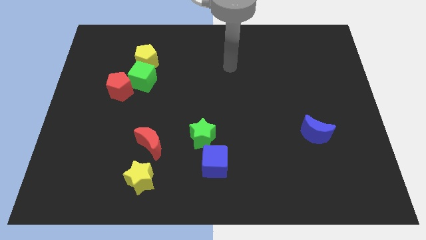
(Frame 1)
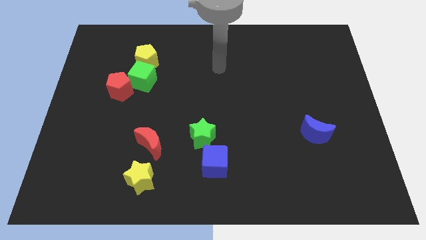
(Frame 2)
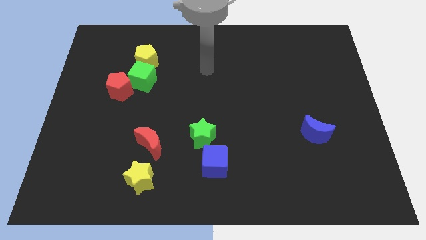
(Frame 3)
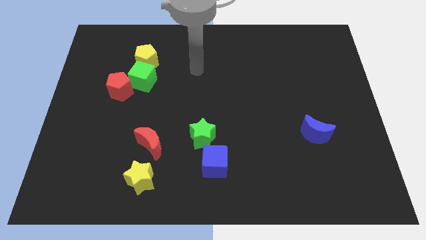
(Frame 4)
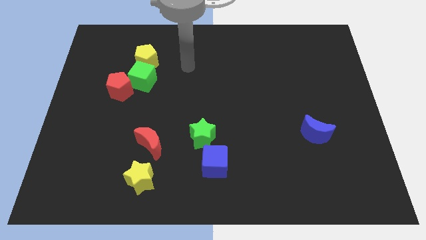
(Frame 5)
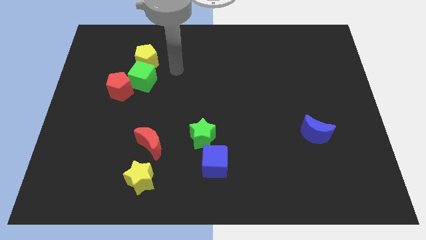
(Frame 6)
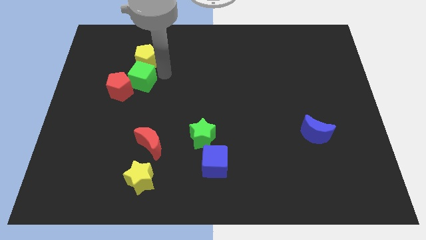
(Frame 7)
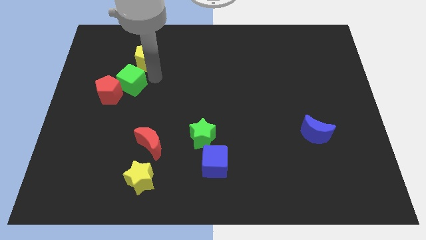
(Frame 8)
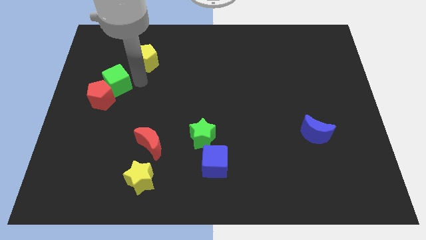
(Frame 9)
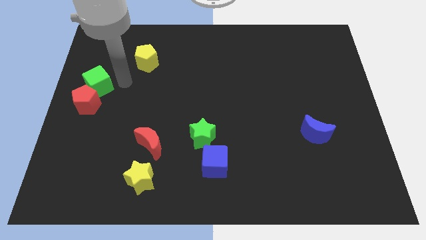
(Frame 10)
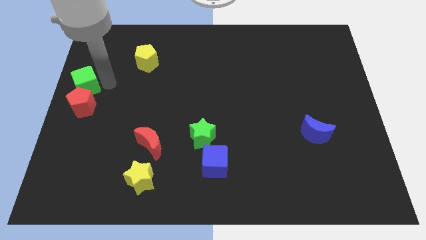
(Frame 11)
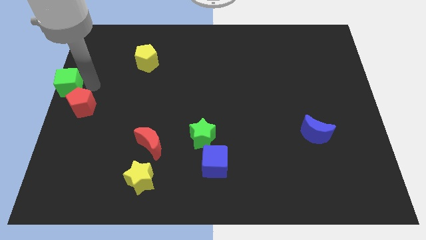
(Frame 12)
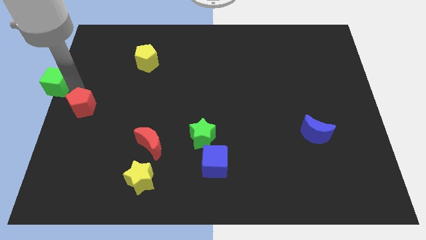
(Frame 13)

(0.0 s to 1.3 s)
pull the red pentagon apart from the green cube

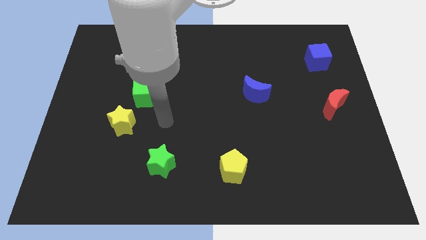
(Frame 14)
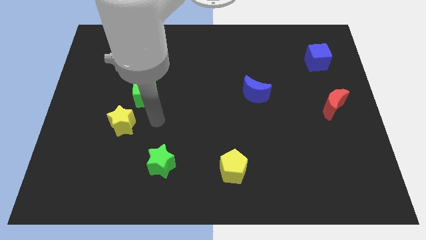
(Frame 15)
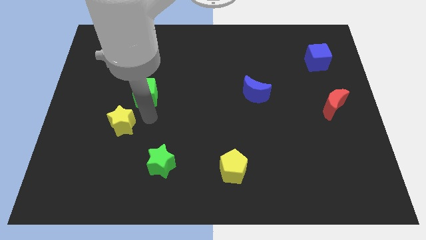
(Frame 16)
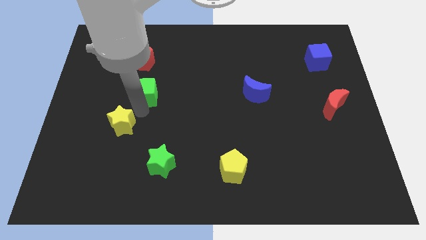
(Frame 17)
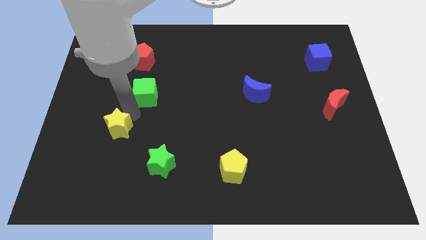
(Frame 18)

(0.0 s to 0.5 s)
move the green cube away from the yellow star

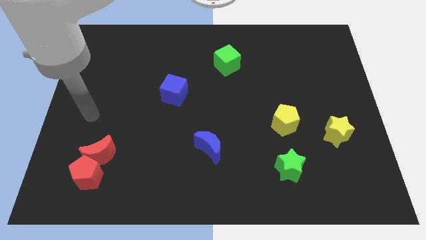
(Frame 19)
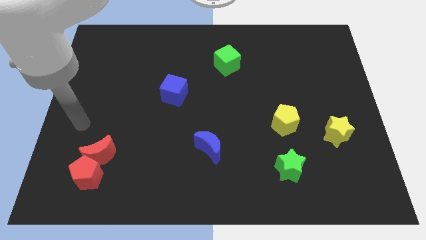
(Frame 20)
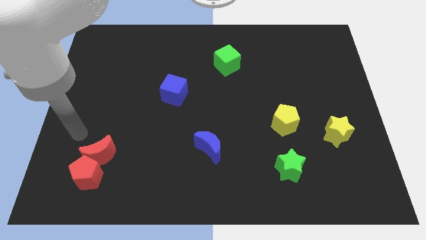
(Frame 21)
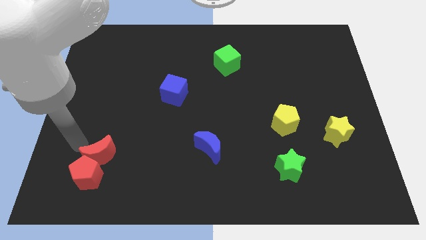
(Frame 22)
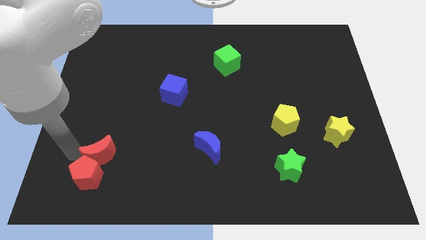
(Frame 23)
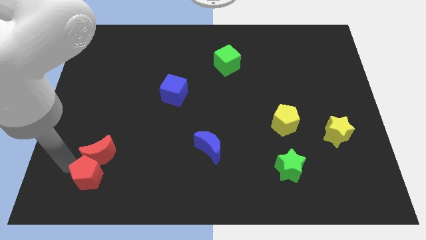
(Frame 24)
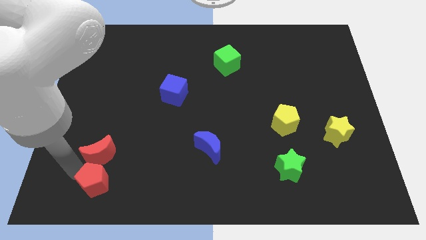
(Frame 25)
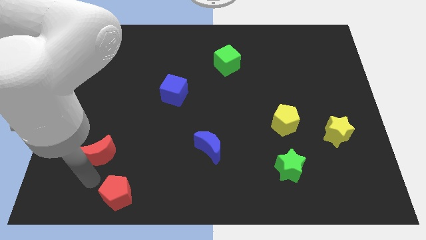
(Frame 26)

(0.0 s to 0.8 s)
pull the red moon apart from the red pentagon

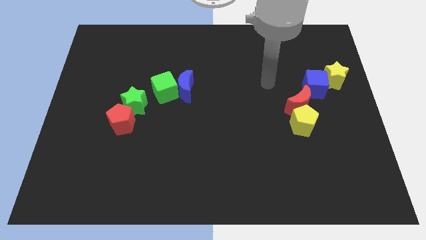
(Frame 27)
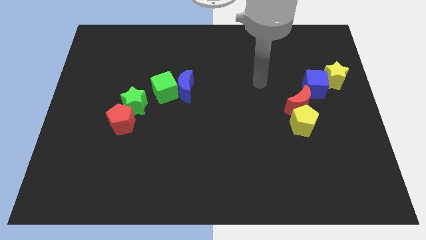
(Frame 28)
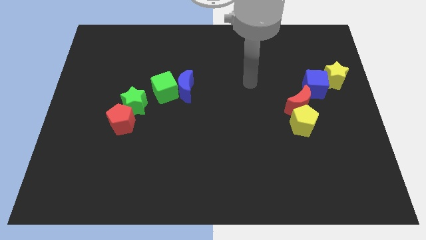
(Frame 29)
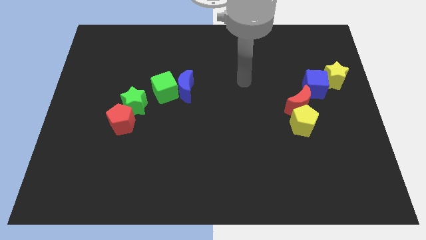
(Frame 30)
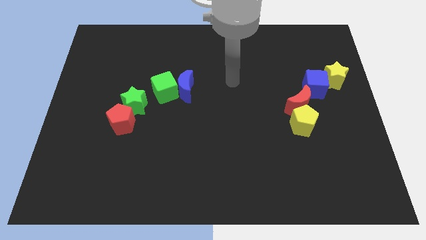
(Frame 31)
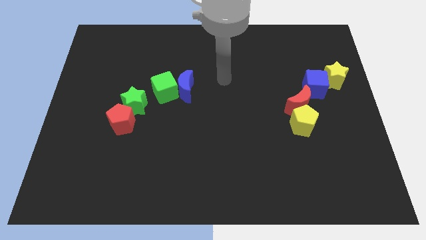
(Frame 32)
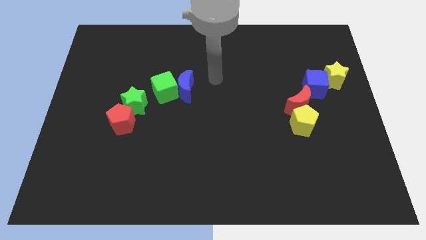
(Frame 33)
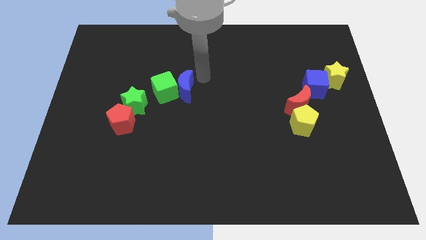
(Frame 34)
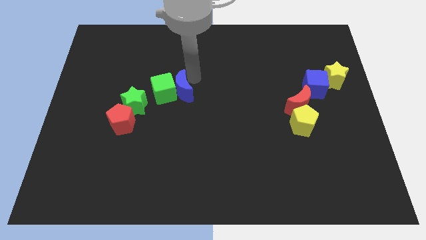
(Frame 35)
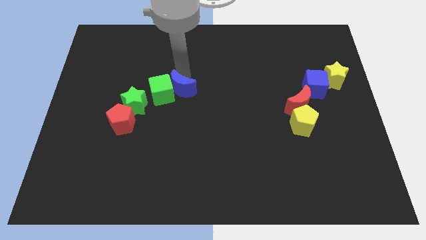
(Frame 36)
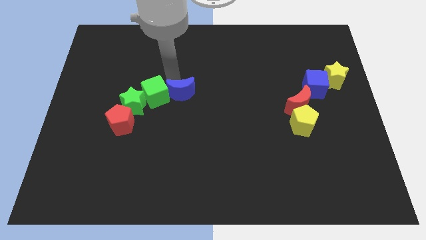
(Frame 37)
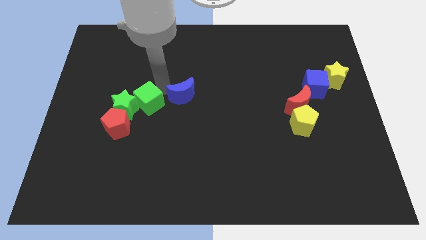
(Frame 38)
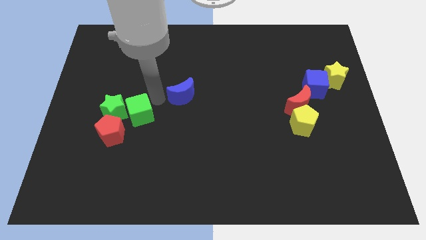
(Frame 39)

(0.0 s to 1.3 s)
separate the blue moon from the green cube

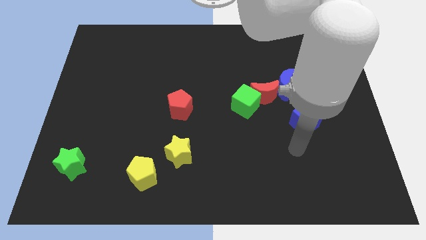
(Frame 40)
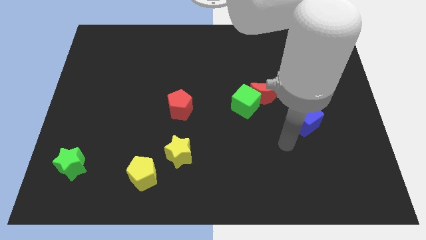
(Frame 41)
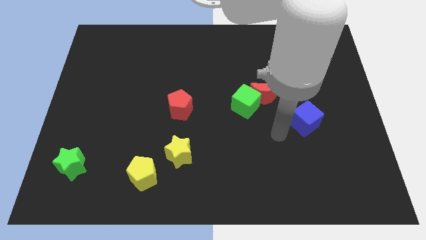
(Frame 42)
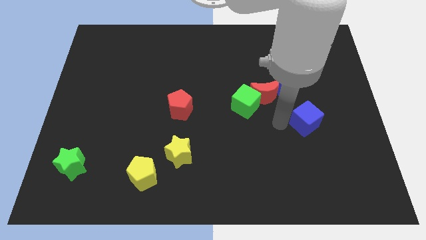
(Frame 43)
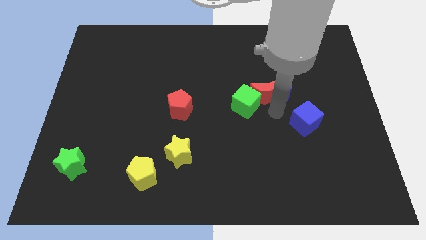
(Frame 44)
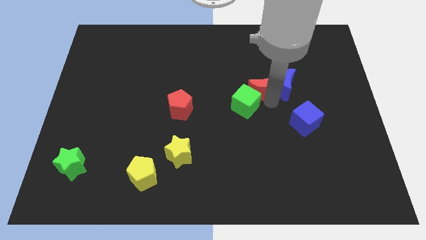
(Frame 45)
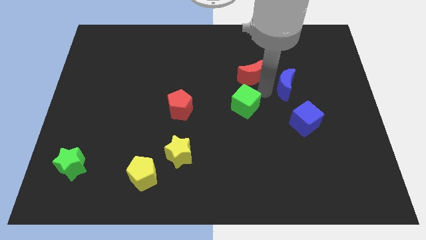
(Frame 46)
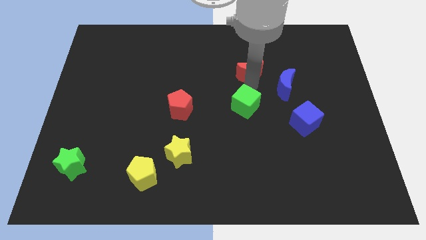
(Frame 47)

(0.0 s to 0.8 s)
move the green cube away from the red moon

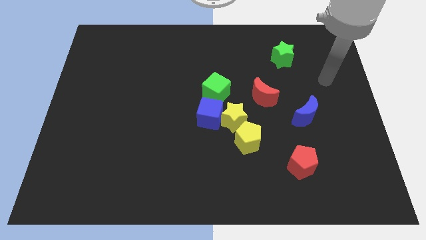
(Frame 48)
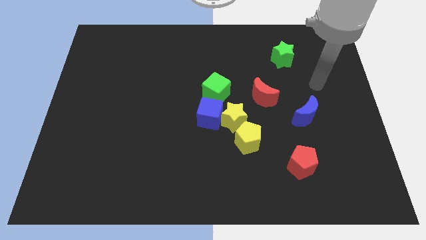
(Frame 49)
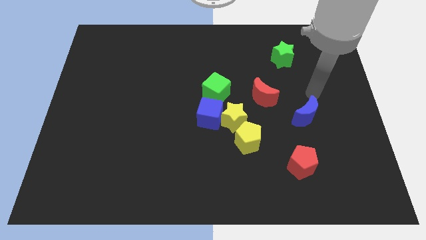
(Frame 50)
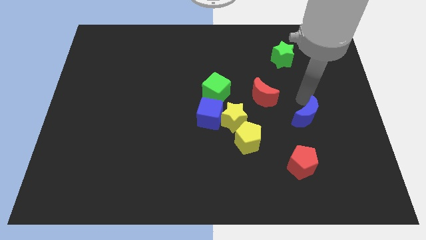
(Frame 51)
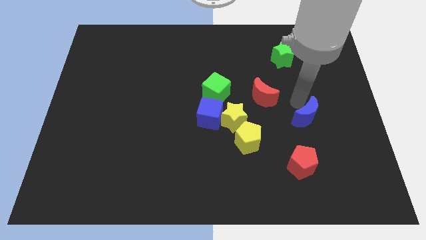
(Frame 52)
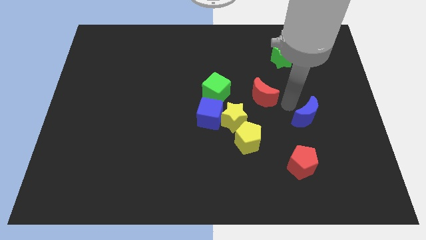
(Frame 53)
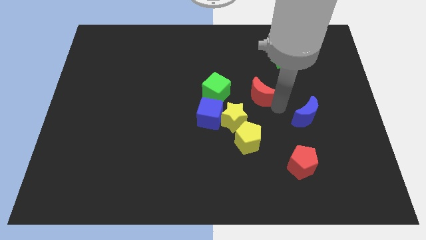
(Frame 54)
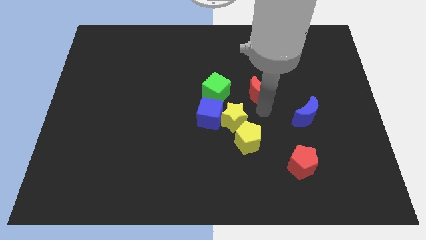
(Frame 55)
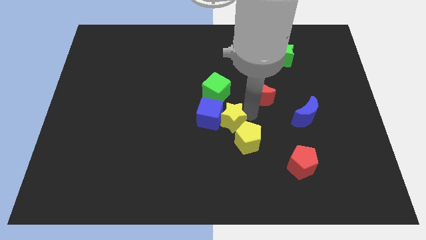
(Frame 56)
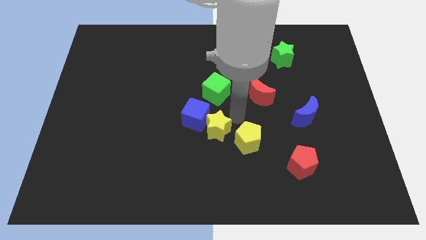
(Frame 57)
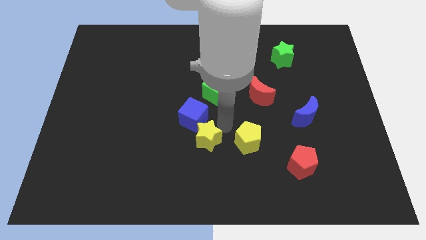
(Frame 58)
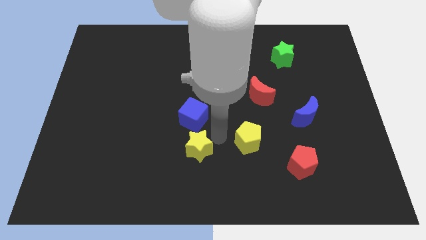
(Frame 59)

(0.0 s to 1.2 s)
move the yellow pentagon away from the yellow star

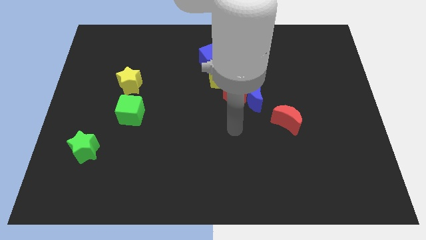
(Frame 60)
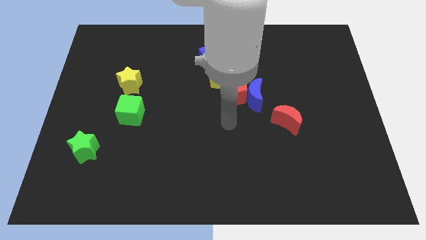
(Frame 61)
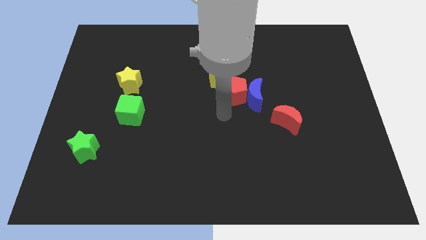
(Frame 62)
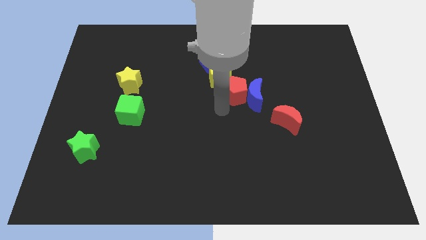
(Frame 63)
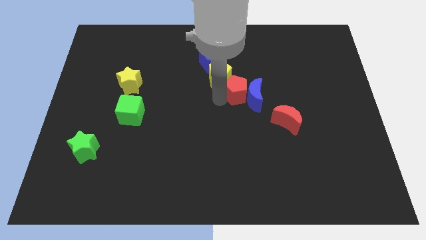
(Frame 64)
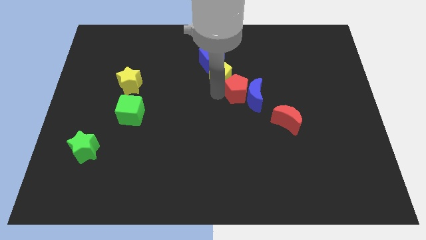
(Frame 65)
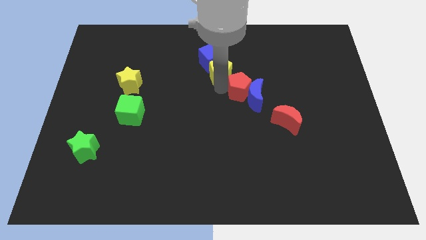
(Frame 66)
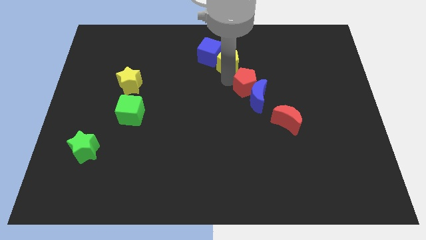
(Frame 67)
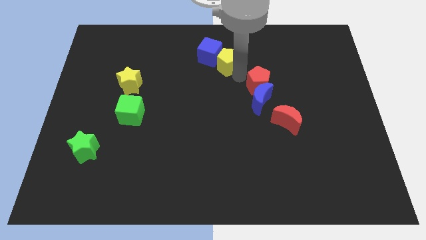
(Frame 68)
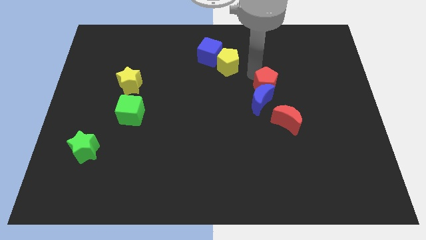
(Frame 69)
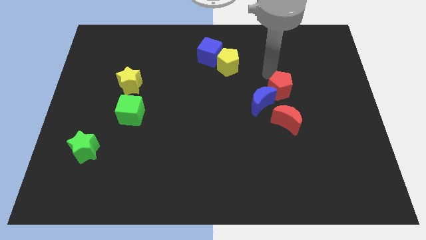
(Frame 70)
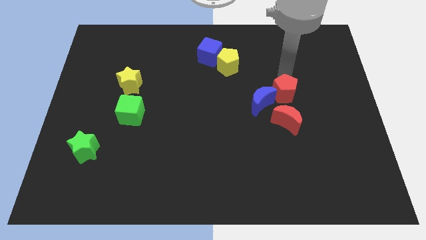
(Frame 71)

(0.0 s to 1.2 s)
separate the red pentagon from the blue moon and yellow pentagon

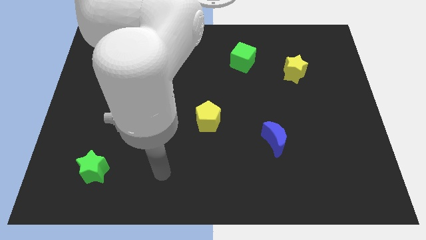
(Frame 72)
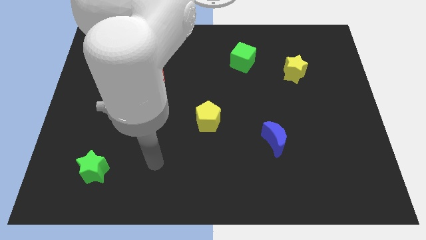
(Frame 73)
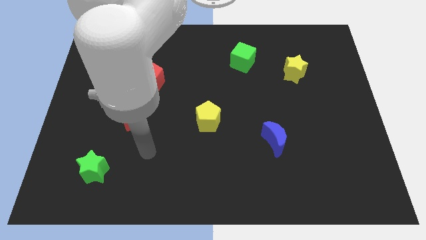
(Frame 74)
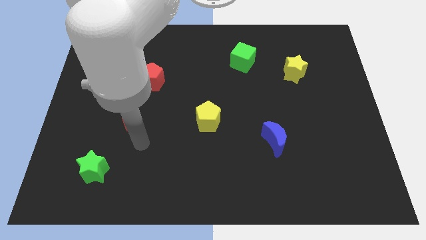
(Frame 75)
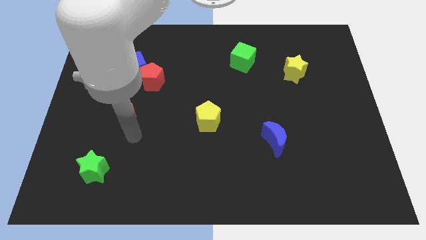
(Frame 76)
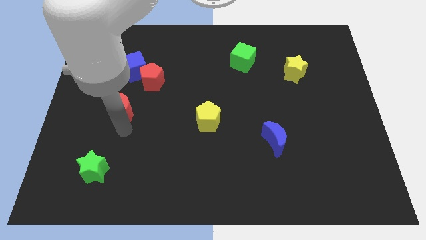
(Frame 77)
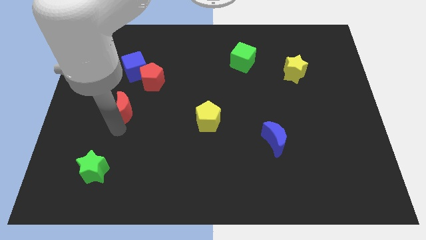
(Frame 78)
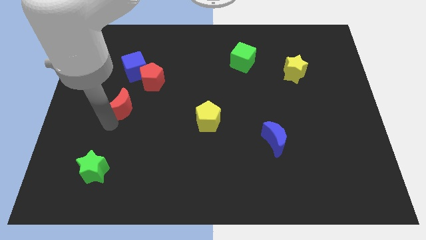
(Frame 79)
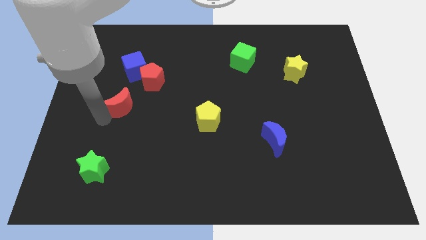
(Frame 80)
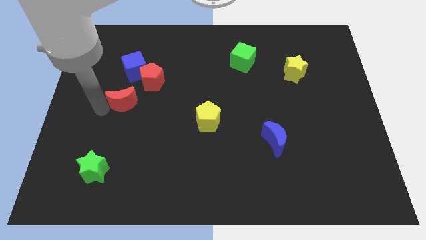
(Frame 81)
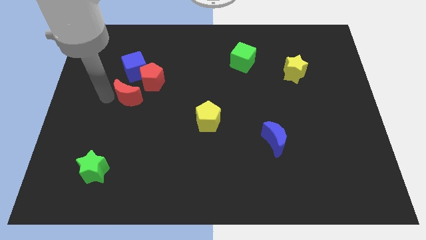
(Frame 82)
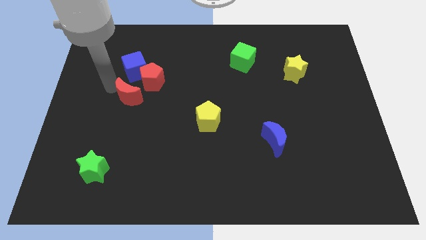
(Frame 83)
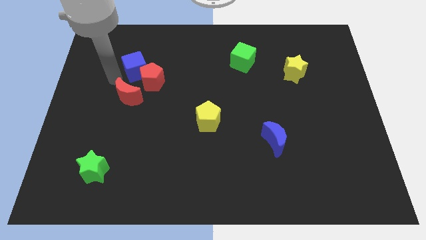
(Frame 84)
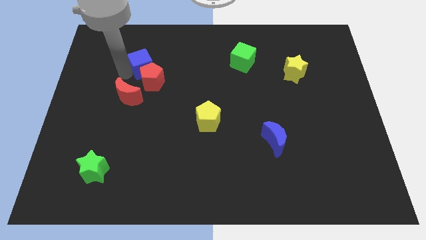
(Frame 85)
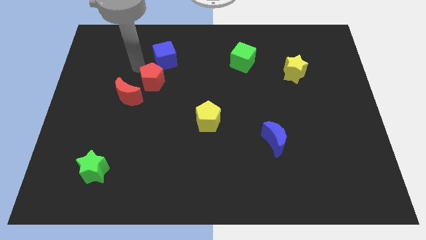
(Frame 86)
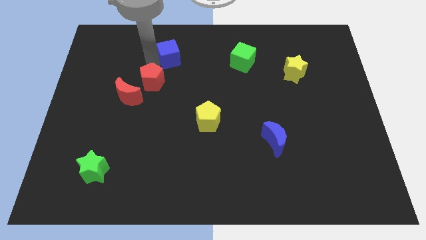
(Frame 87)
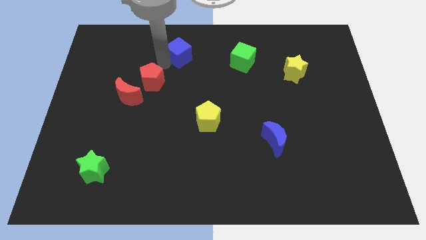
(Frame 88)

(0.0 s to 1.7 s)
pull the red pentagon apart from the blue cube

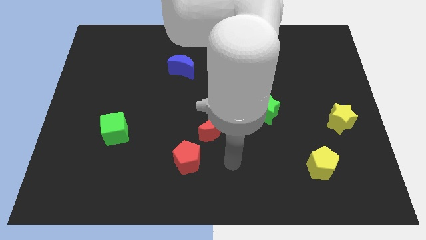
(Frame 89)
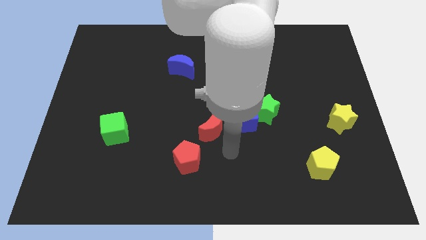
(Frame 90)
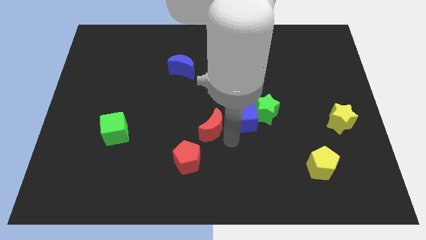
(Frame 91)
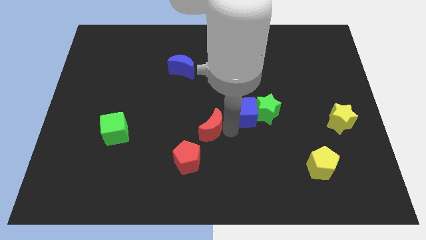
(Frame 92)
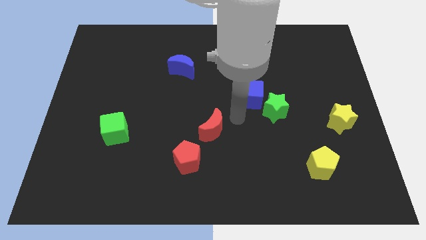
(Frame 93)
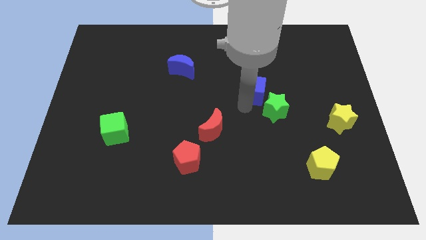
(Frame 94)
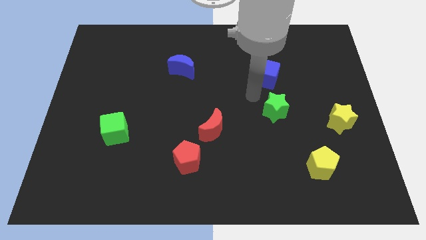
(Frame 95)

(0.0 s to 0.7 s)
pull the green star apart from the blue cube
